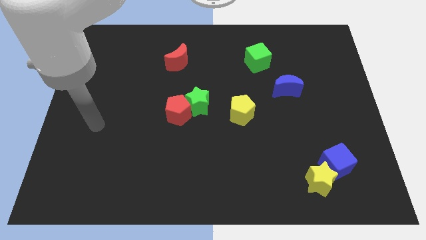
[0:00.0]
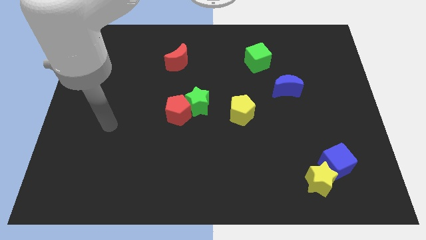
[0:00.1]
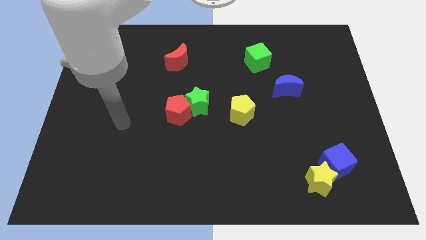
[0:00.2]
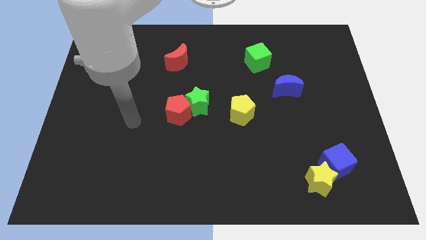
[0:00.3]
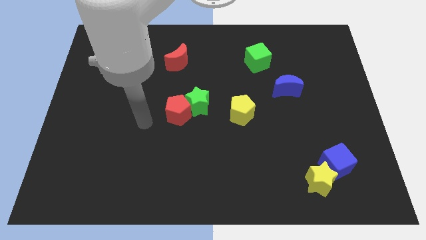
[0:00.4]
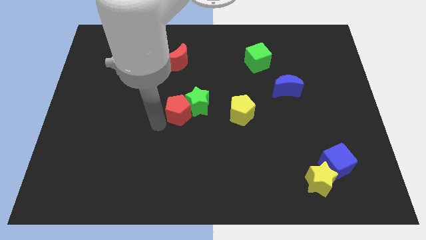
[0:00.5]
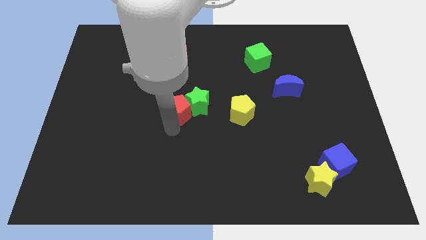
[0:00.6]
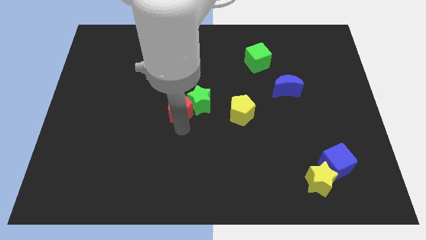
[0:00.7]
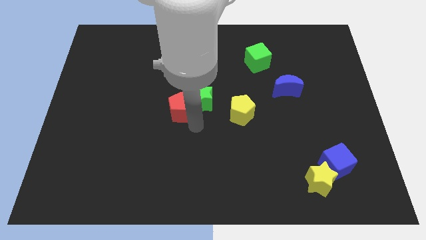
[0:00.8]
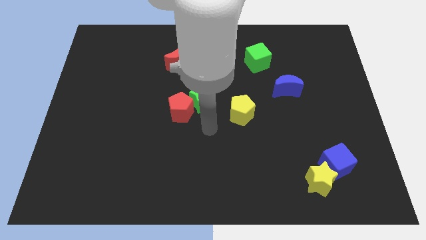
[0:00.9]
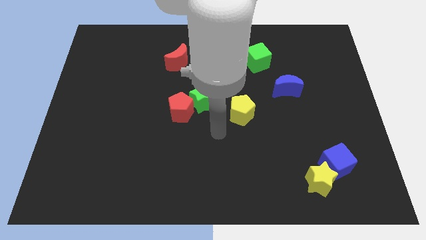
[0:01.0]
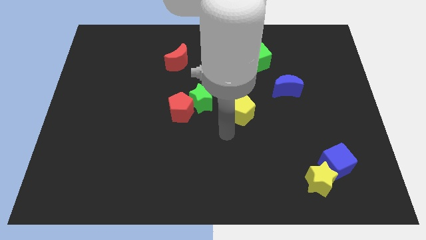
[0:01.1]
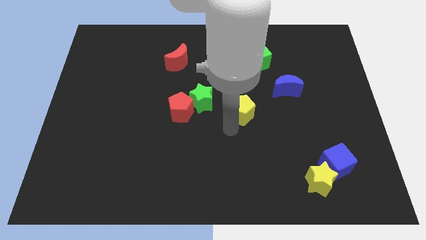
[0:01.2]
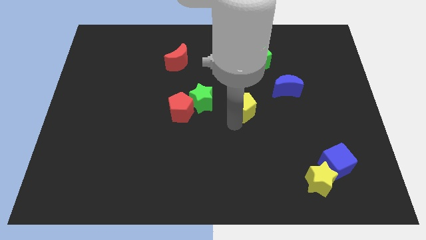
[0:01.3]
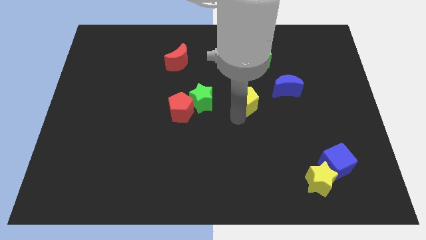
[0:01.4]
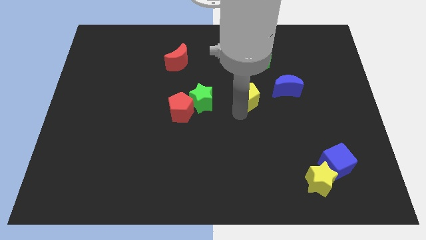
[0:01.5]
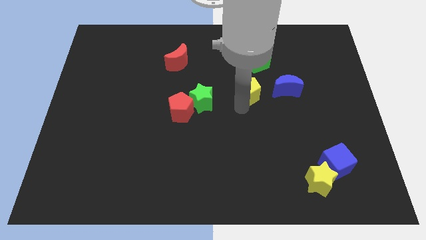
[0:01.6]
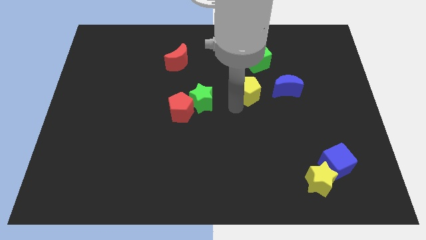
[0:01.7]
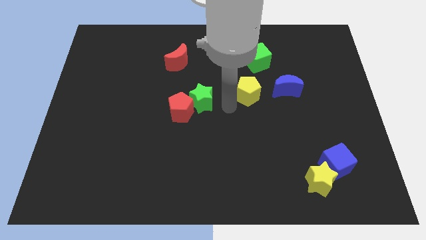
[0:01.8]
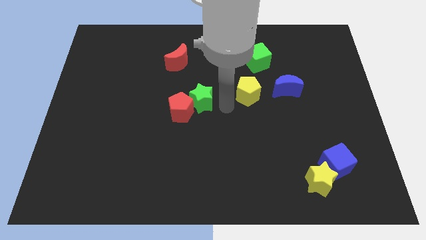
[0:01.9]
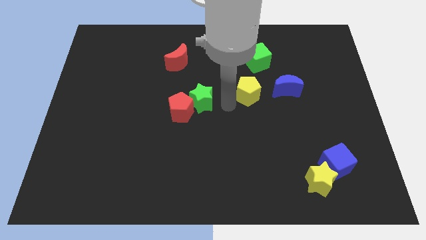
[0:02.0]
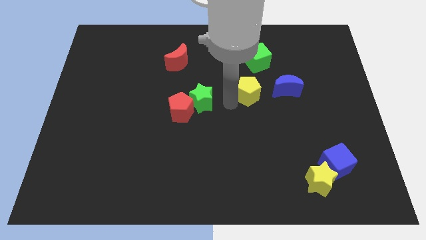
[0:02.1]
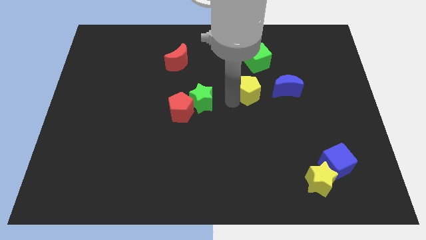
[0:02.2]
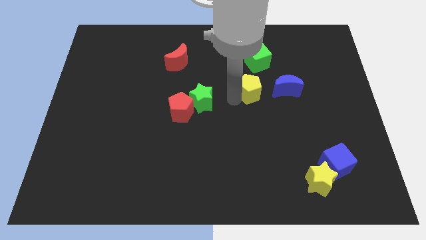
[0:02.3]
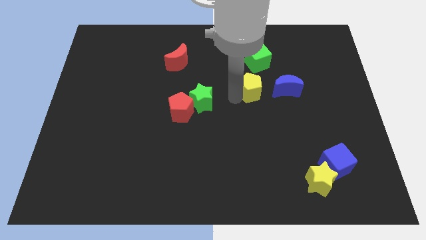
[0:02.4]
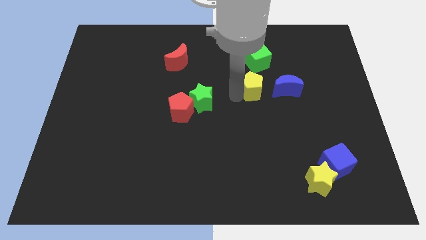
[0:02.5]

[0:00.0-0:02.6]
slide the yellow pentagon upwards and then right slightly

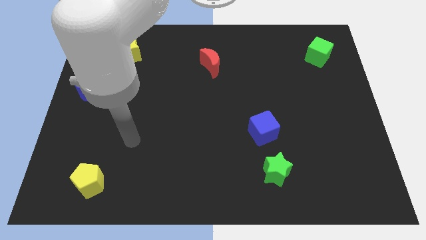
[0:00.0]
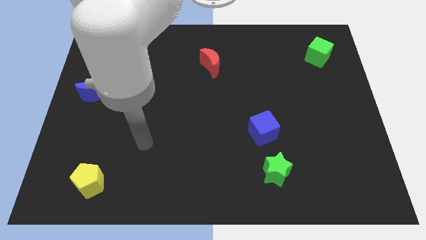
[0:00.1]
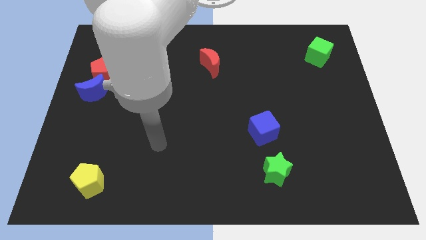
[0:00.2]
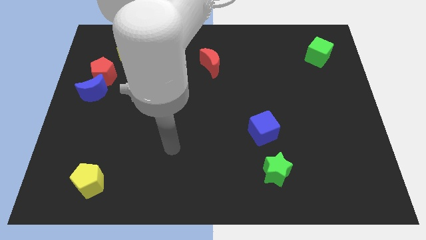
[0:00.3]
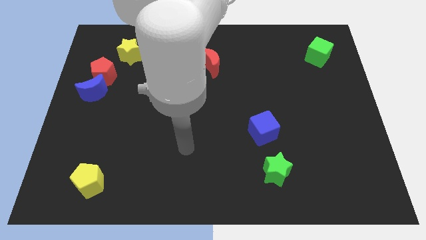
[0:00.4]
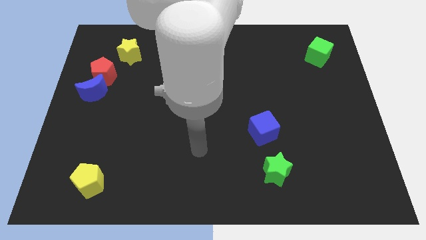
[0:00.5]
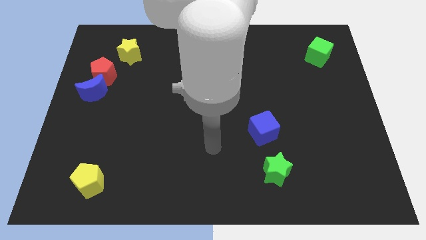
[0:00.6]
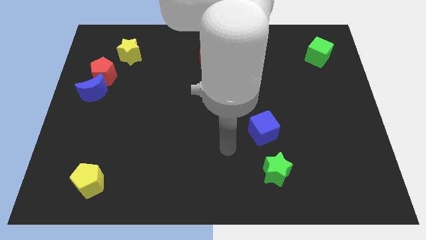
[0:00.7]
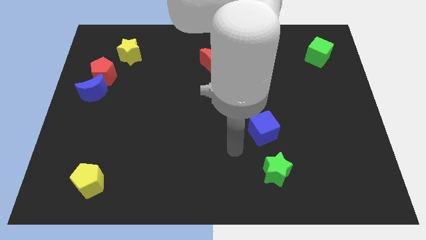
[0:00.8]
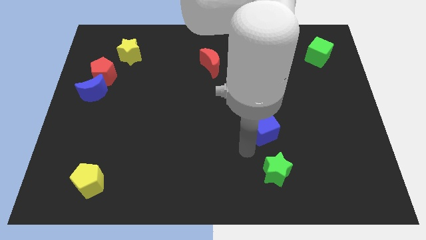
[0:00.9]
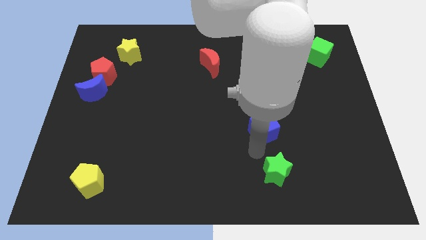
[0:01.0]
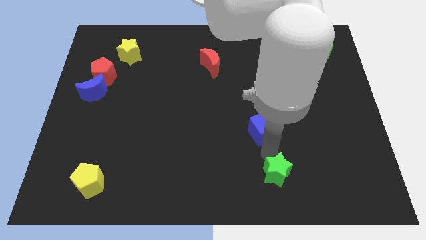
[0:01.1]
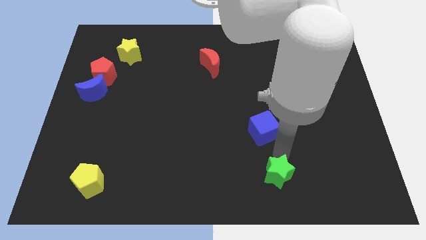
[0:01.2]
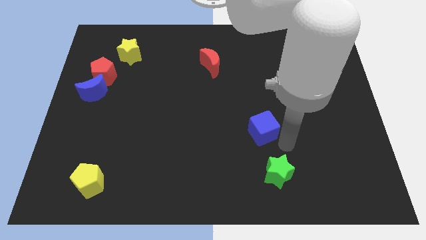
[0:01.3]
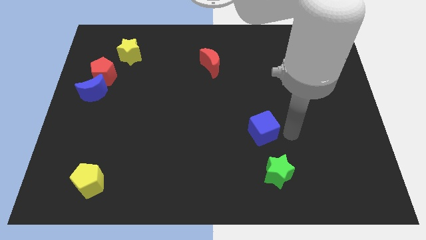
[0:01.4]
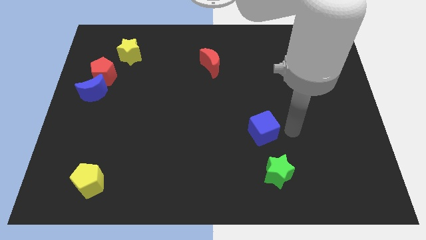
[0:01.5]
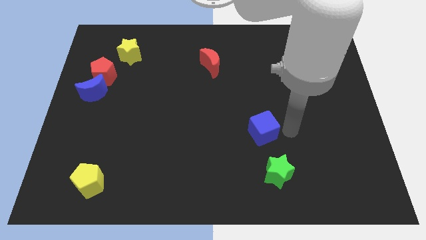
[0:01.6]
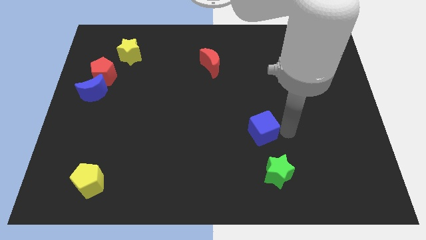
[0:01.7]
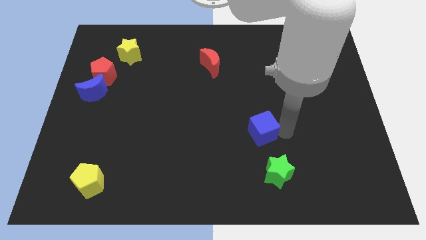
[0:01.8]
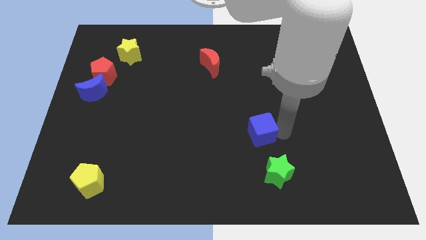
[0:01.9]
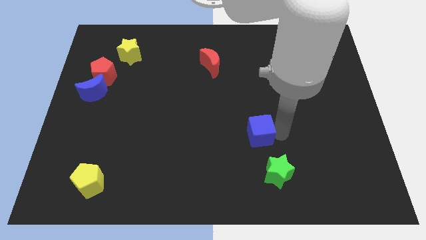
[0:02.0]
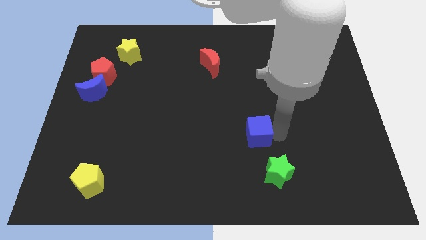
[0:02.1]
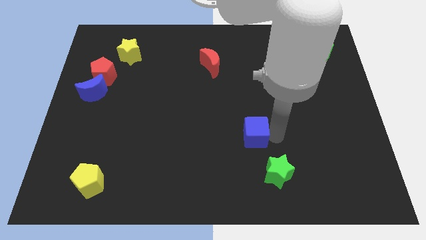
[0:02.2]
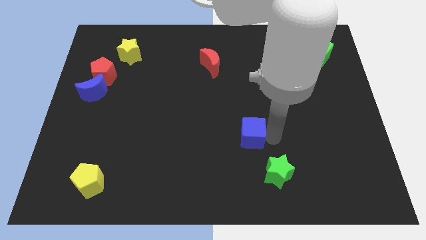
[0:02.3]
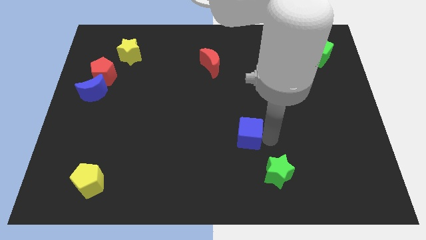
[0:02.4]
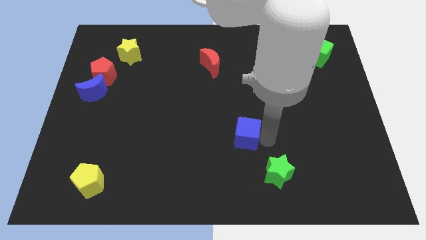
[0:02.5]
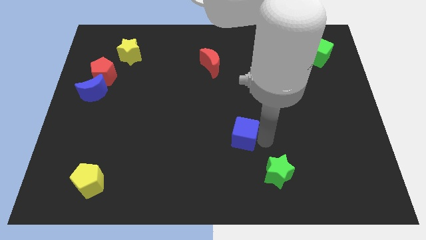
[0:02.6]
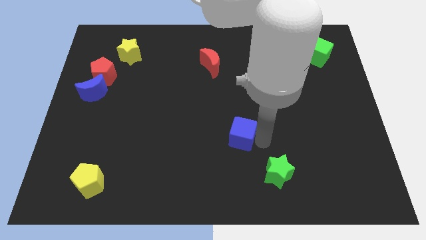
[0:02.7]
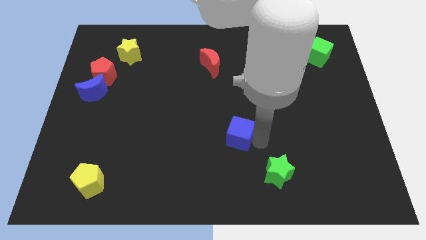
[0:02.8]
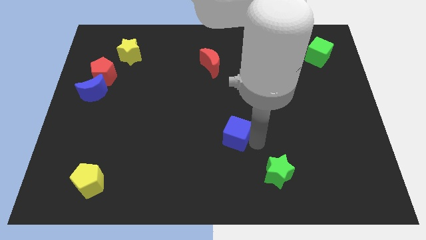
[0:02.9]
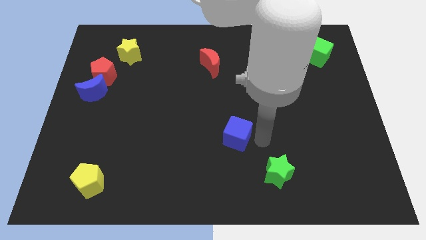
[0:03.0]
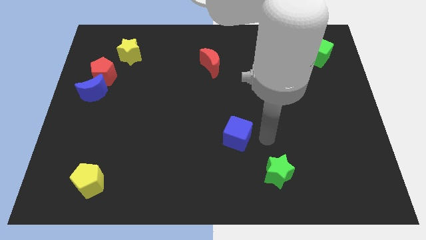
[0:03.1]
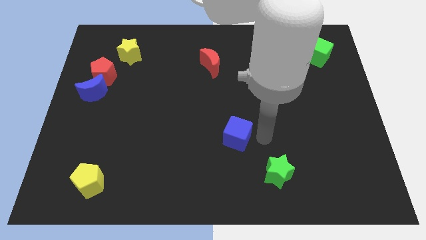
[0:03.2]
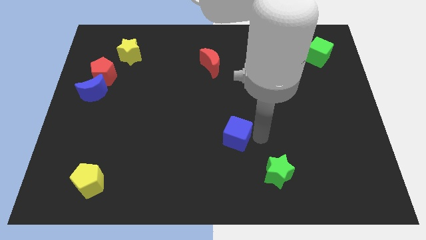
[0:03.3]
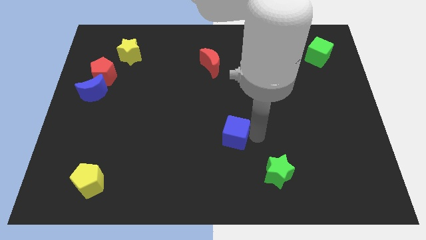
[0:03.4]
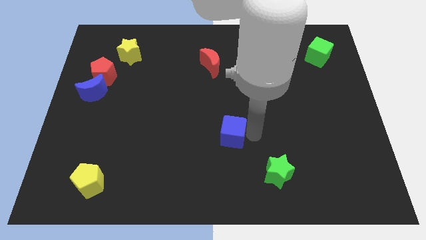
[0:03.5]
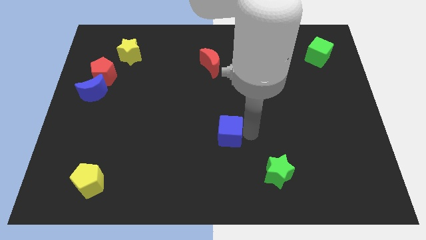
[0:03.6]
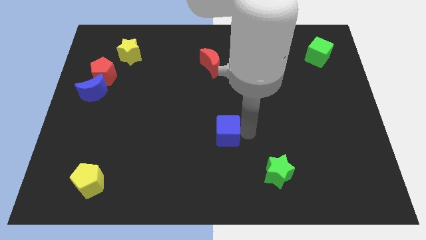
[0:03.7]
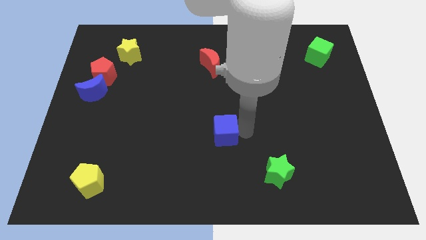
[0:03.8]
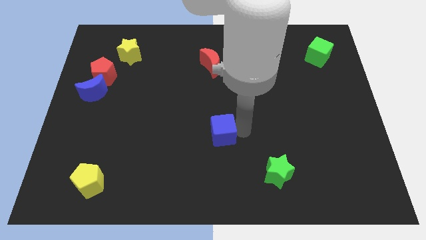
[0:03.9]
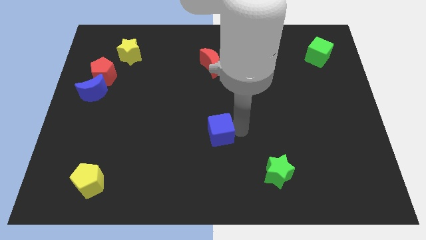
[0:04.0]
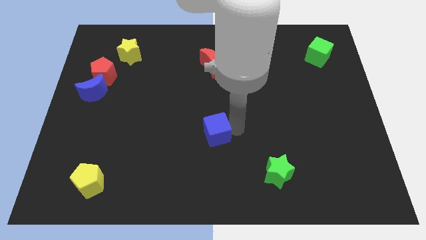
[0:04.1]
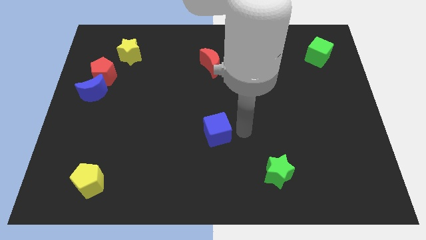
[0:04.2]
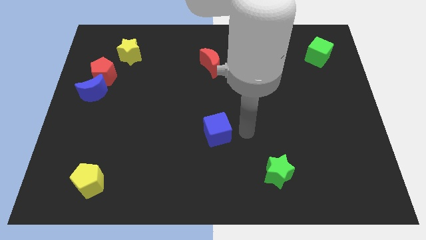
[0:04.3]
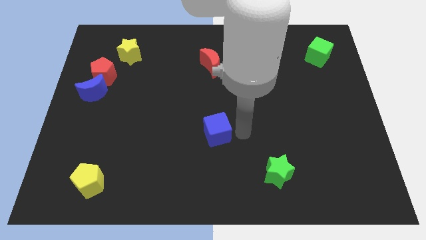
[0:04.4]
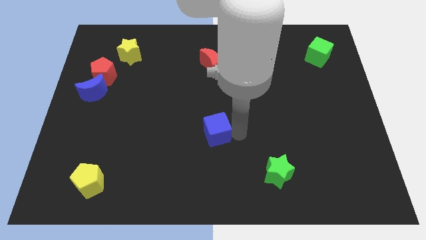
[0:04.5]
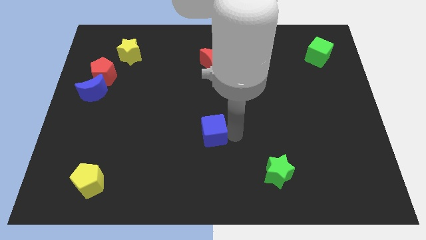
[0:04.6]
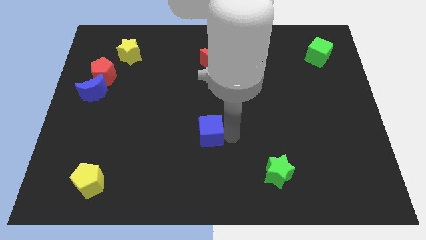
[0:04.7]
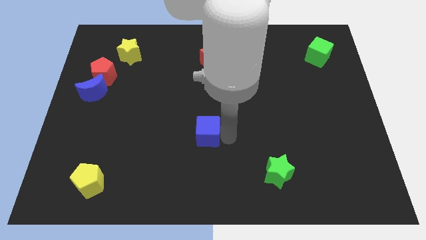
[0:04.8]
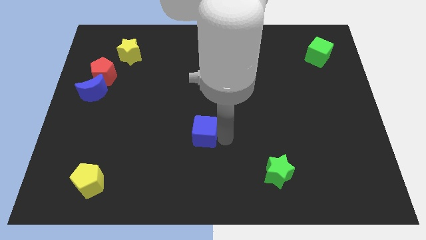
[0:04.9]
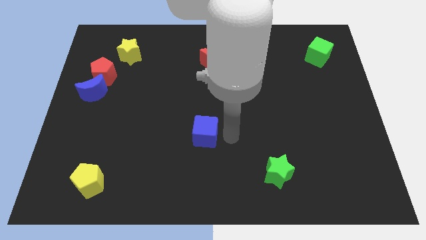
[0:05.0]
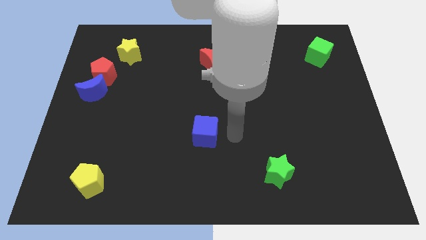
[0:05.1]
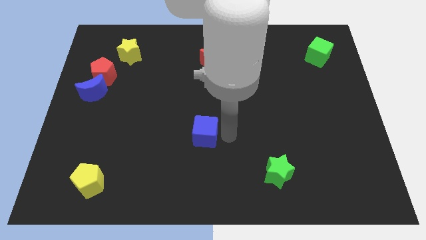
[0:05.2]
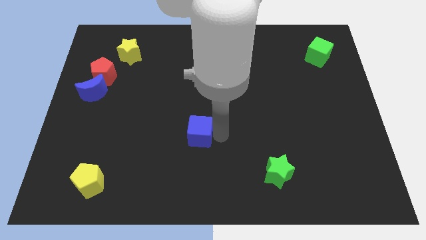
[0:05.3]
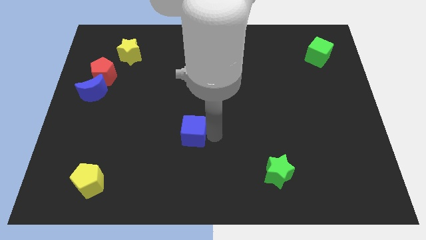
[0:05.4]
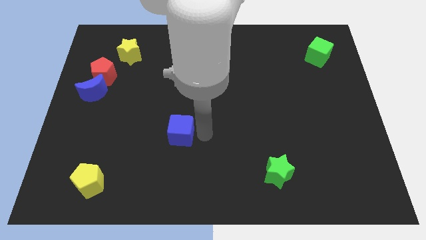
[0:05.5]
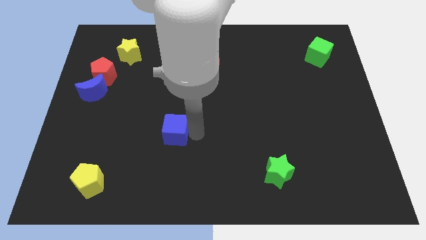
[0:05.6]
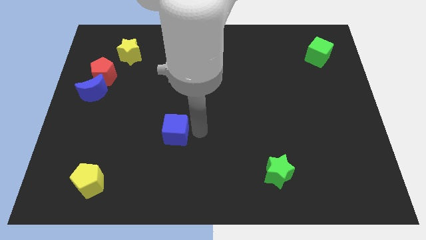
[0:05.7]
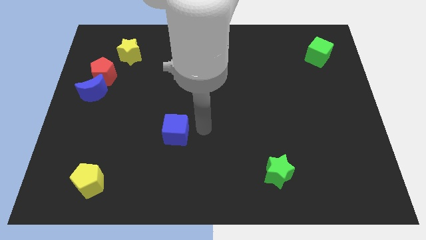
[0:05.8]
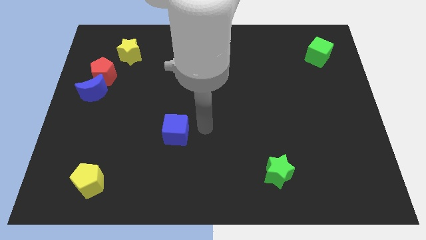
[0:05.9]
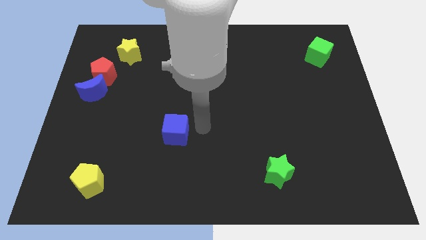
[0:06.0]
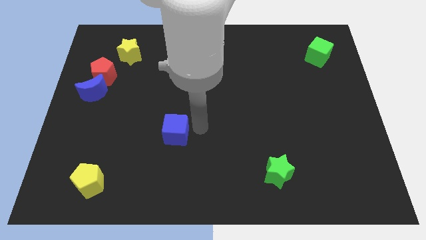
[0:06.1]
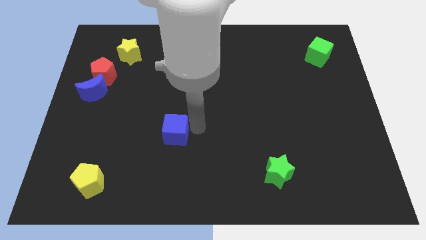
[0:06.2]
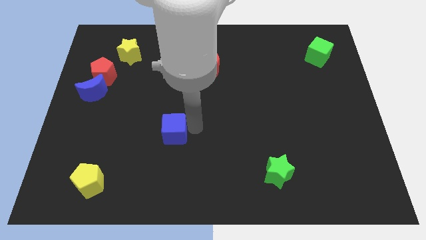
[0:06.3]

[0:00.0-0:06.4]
move the blue cube left
